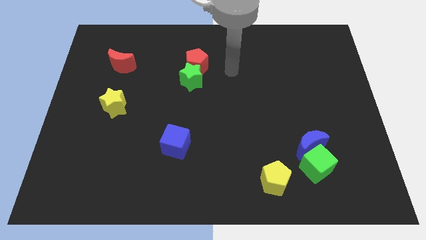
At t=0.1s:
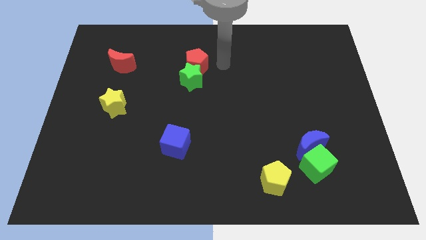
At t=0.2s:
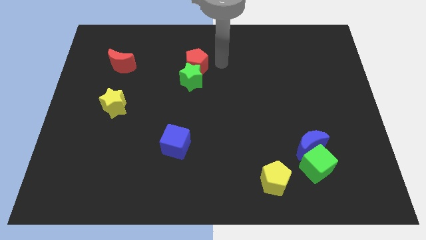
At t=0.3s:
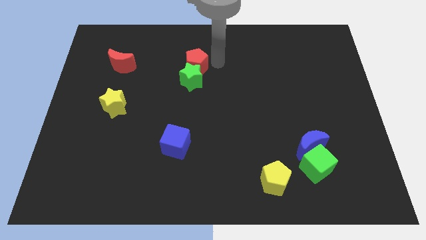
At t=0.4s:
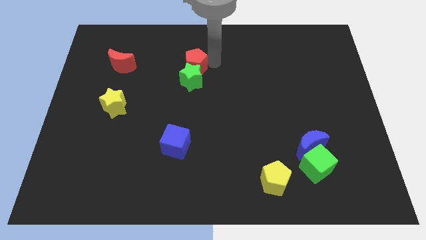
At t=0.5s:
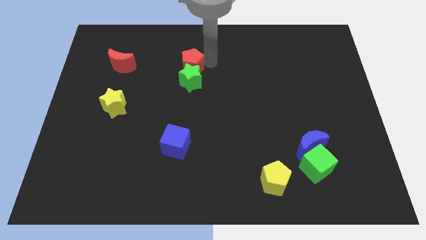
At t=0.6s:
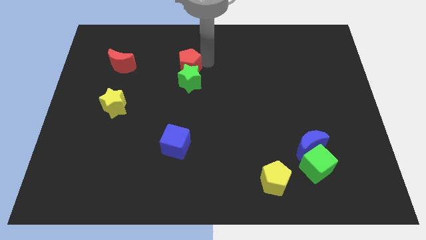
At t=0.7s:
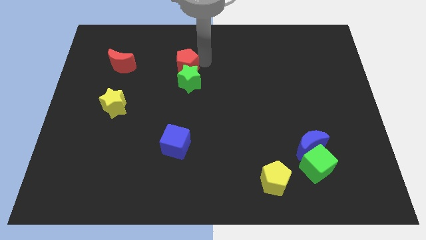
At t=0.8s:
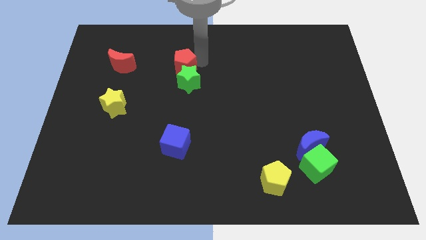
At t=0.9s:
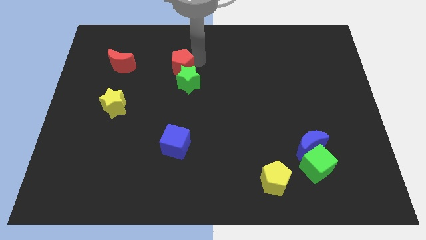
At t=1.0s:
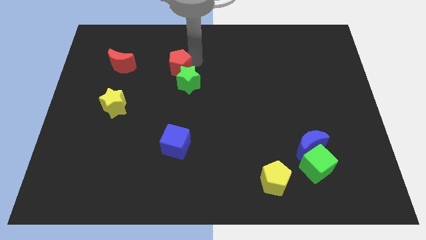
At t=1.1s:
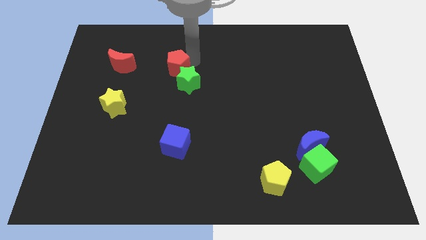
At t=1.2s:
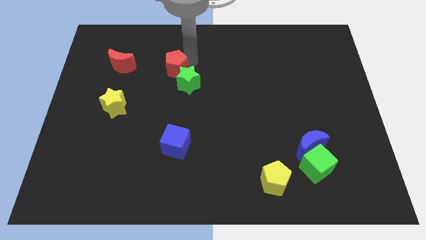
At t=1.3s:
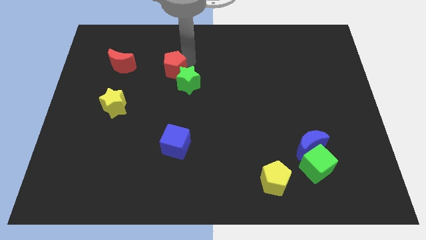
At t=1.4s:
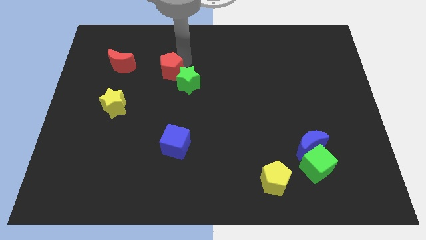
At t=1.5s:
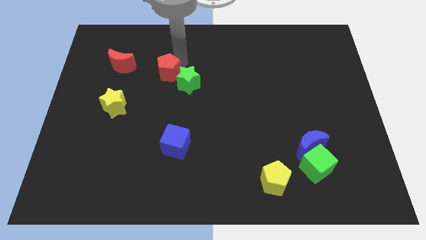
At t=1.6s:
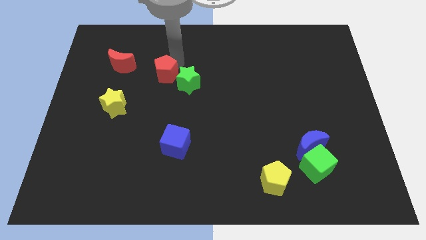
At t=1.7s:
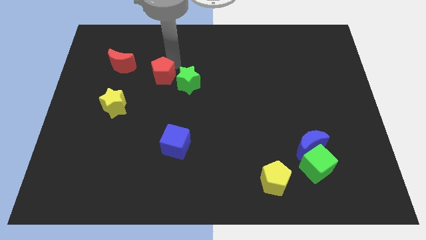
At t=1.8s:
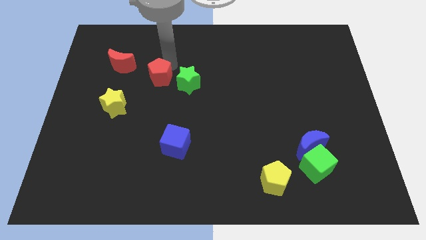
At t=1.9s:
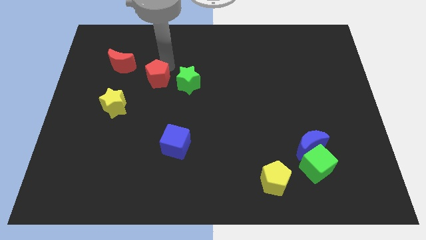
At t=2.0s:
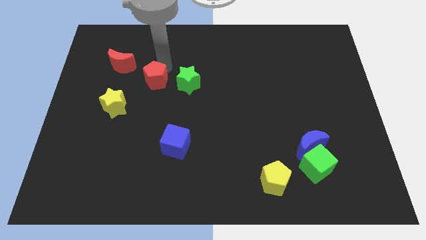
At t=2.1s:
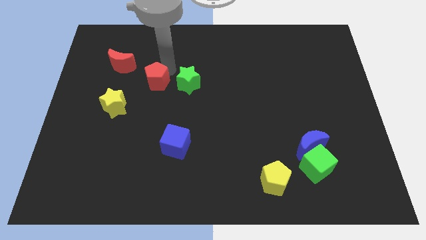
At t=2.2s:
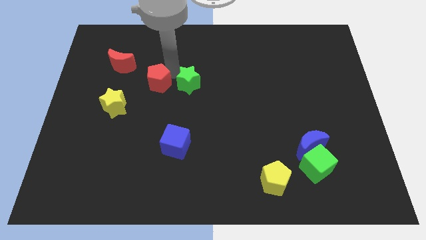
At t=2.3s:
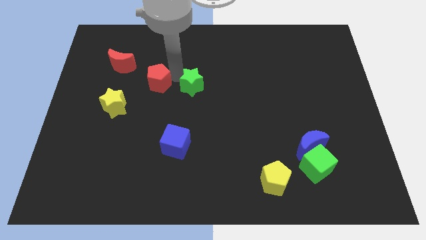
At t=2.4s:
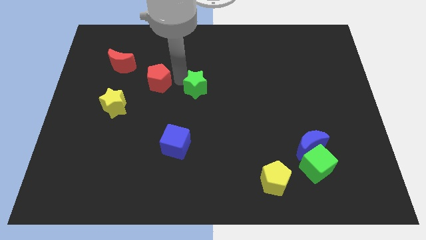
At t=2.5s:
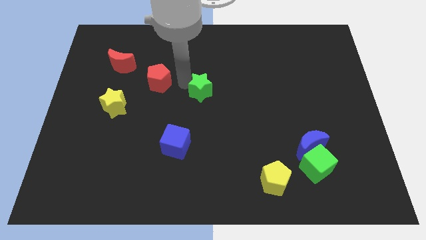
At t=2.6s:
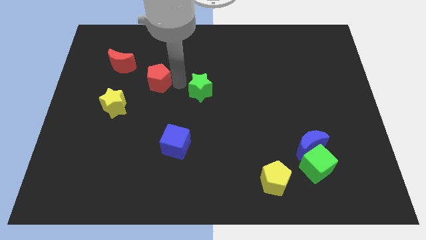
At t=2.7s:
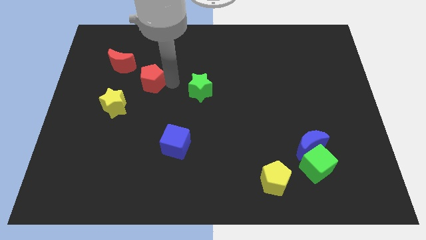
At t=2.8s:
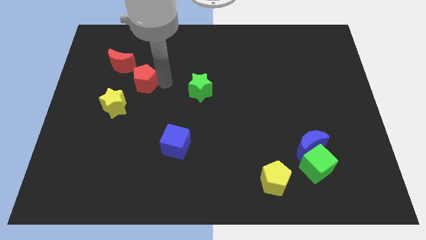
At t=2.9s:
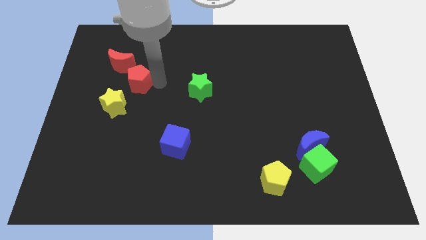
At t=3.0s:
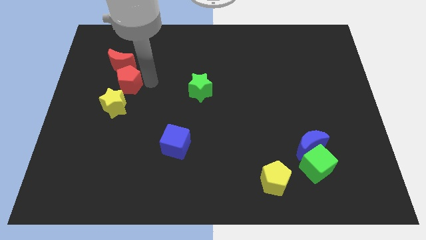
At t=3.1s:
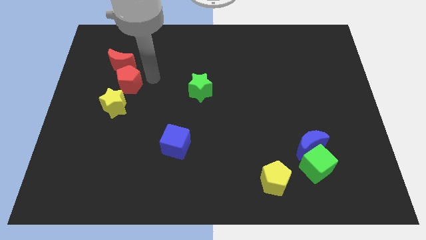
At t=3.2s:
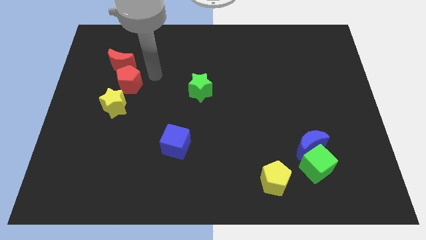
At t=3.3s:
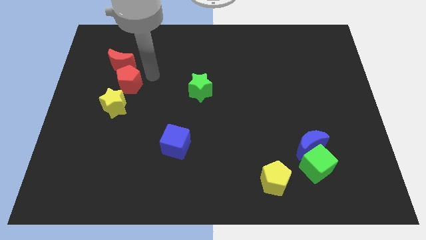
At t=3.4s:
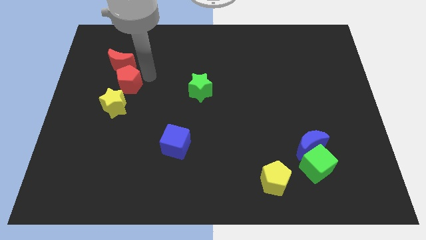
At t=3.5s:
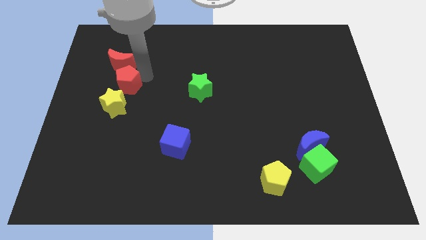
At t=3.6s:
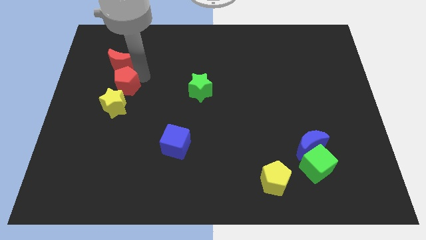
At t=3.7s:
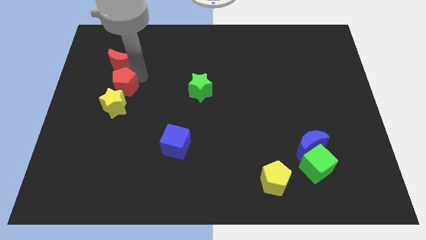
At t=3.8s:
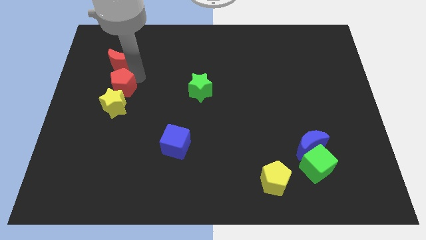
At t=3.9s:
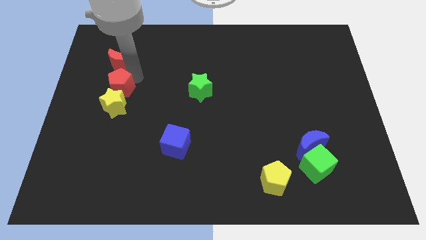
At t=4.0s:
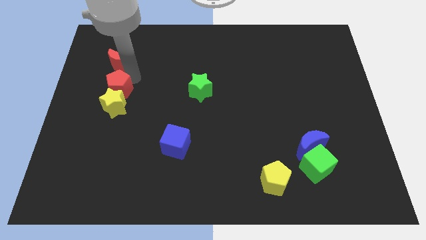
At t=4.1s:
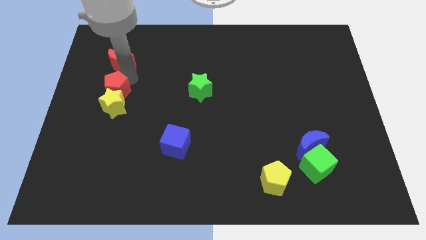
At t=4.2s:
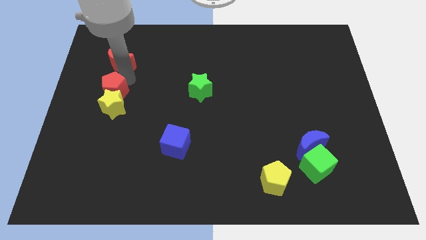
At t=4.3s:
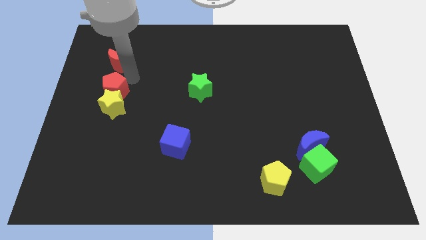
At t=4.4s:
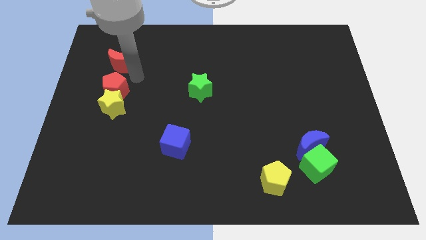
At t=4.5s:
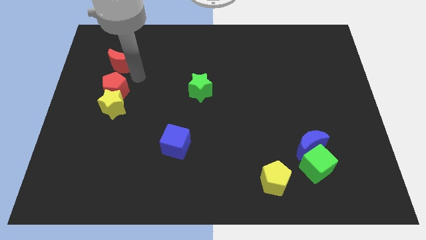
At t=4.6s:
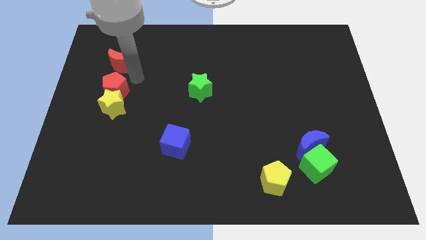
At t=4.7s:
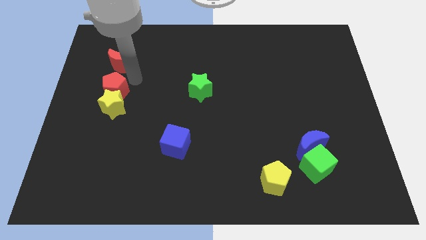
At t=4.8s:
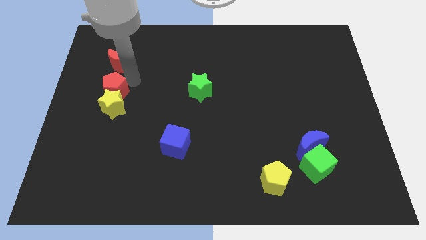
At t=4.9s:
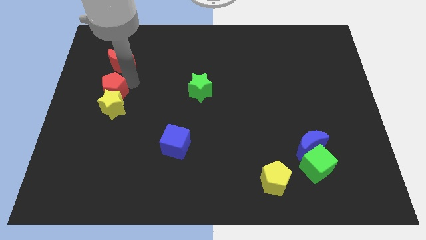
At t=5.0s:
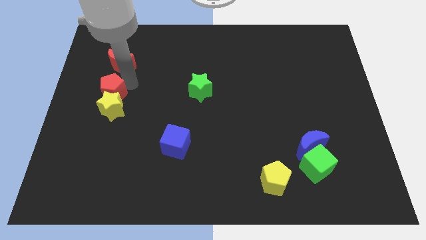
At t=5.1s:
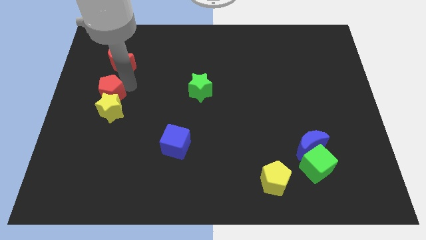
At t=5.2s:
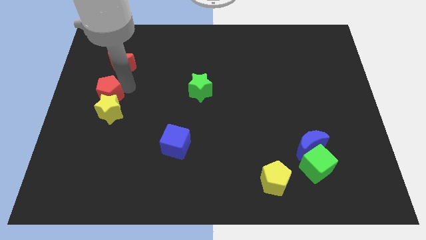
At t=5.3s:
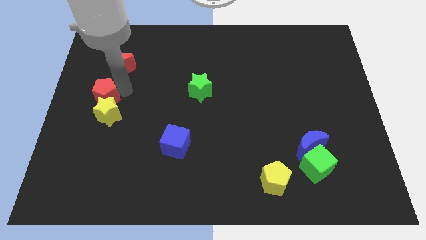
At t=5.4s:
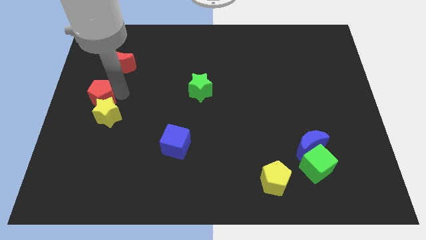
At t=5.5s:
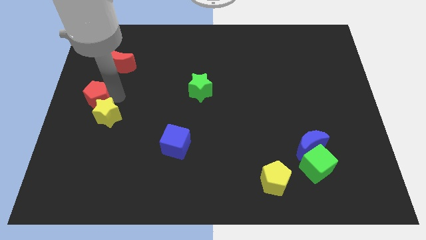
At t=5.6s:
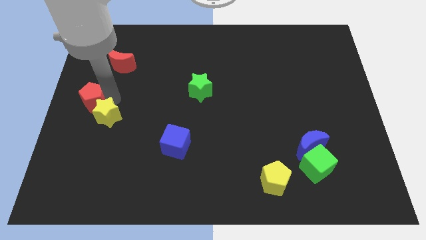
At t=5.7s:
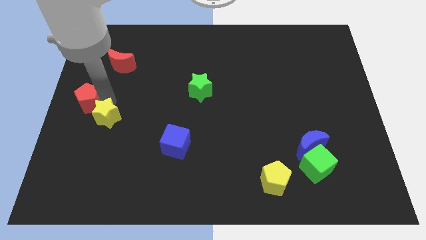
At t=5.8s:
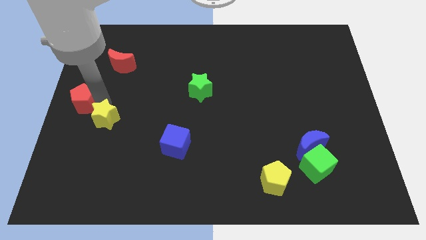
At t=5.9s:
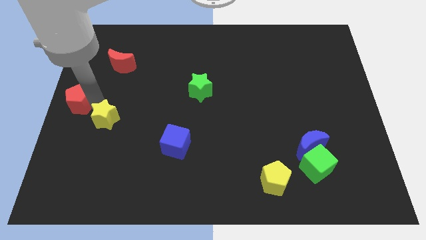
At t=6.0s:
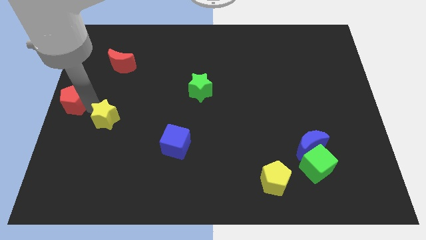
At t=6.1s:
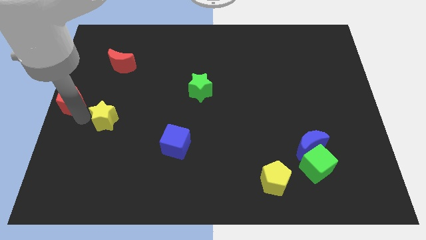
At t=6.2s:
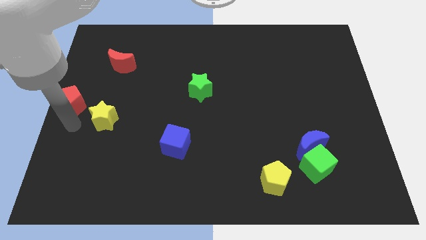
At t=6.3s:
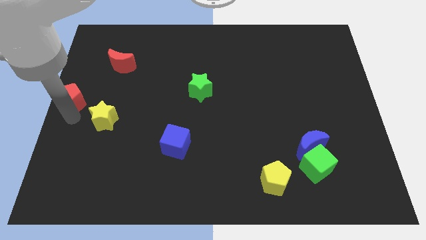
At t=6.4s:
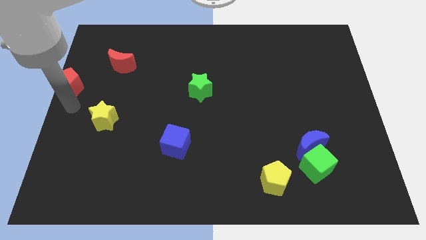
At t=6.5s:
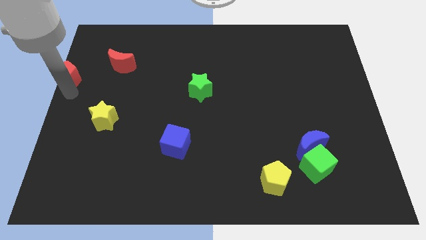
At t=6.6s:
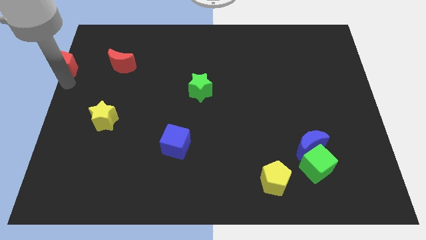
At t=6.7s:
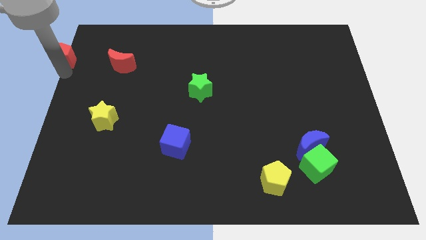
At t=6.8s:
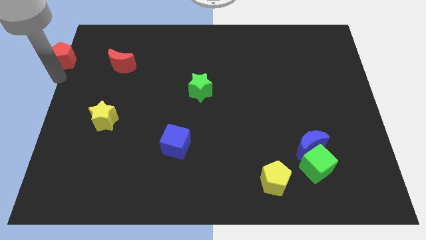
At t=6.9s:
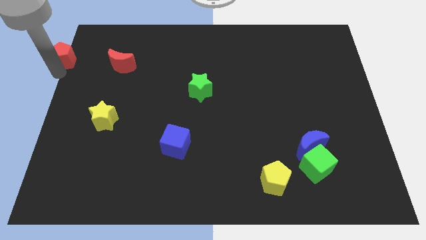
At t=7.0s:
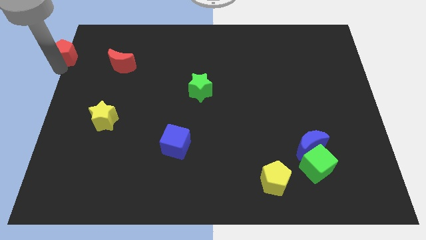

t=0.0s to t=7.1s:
push the red pentagon to the top left corner

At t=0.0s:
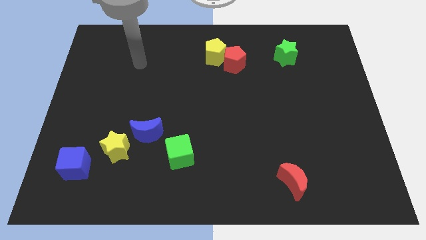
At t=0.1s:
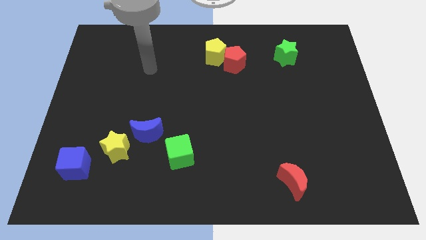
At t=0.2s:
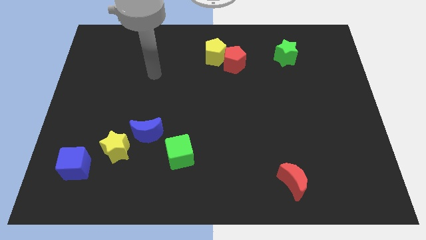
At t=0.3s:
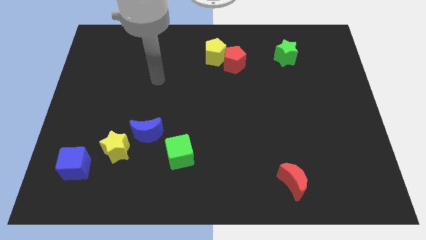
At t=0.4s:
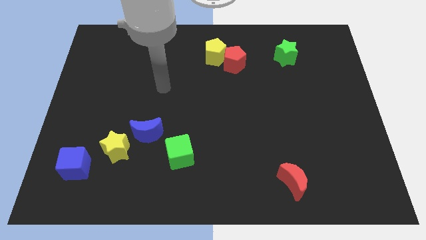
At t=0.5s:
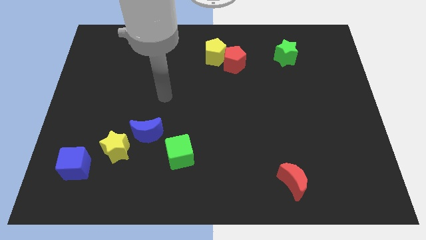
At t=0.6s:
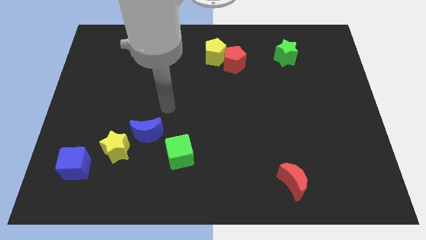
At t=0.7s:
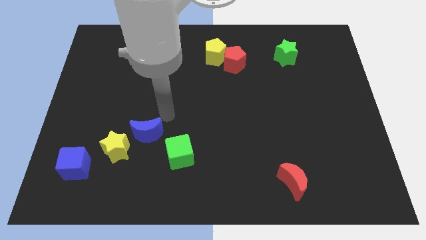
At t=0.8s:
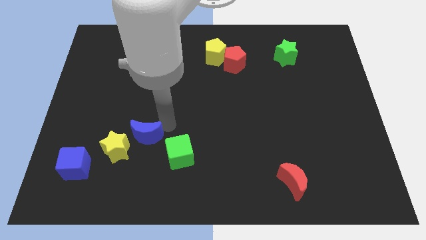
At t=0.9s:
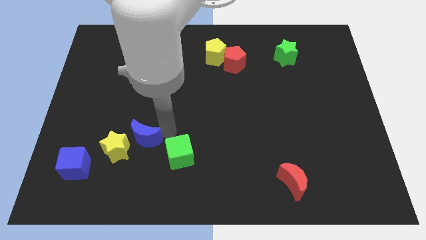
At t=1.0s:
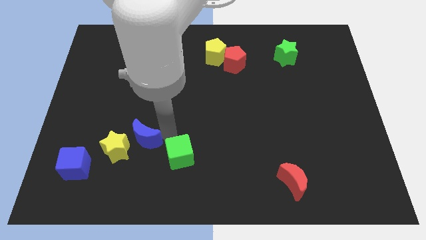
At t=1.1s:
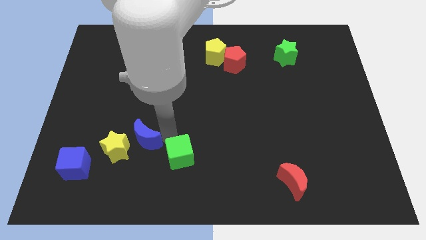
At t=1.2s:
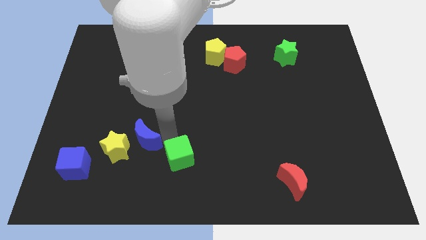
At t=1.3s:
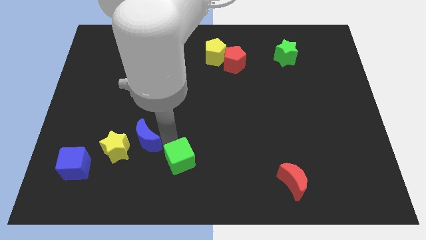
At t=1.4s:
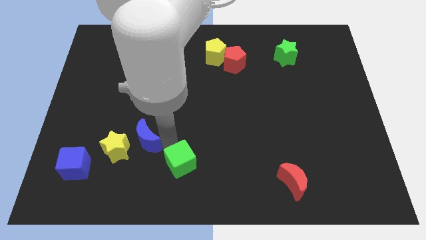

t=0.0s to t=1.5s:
put the green cube to the bottom side
